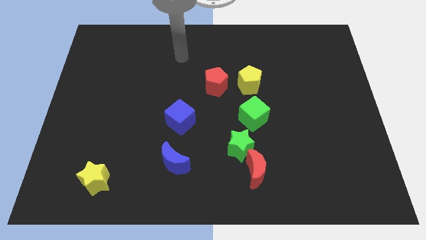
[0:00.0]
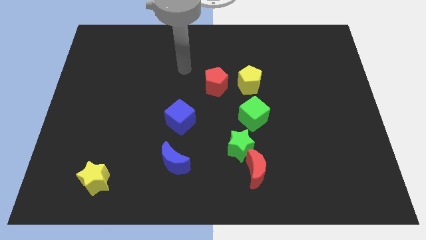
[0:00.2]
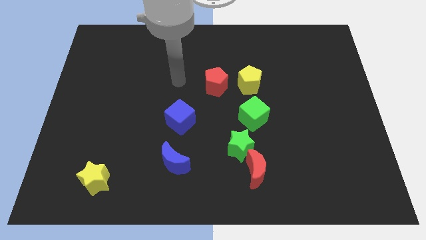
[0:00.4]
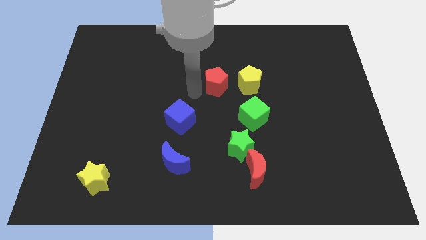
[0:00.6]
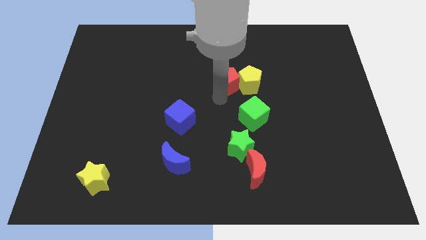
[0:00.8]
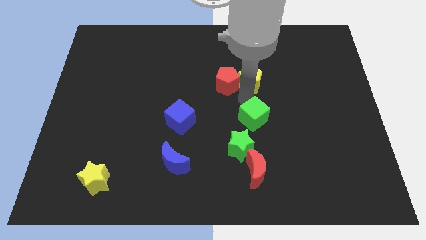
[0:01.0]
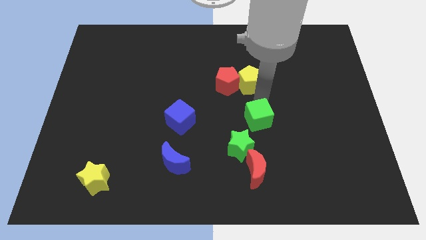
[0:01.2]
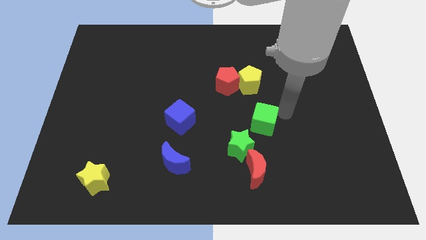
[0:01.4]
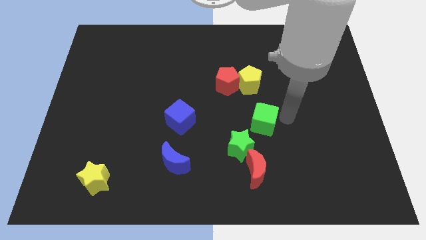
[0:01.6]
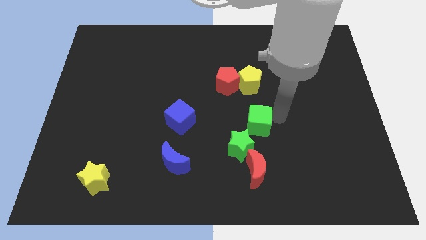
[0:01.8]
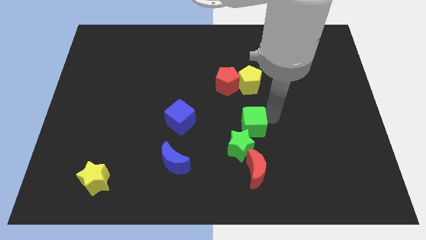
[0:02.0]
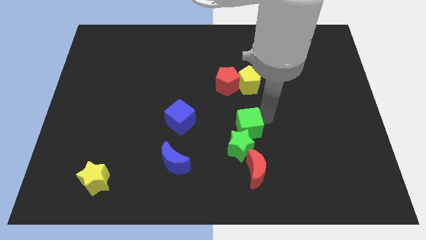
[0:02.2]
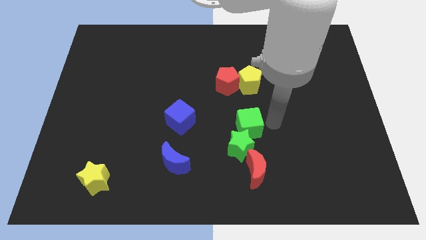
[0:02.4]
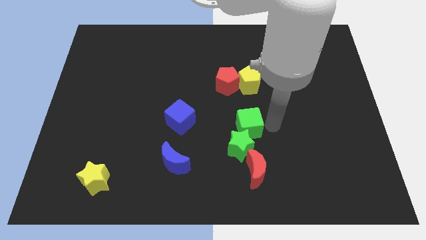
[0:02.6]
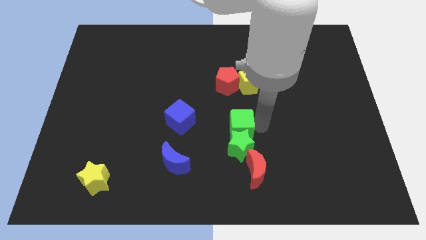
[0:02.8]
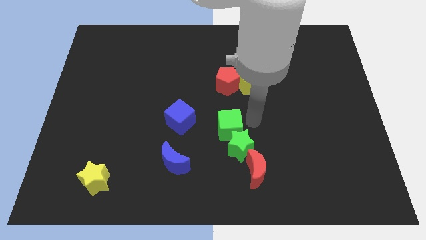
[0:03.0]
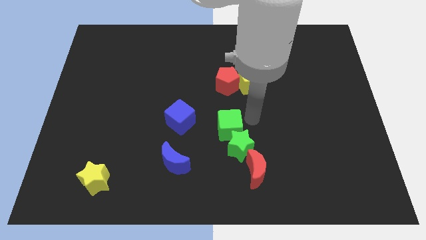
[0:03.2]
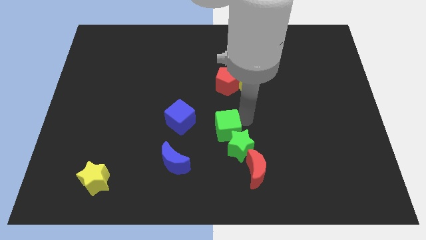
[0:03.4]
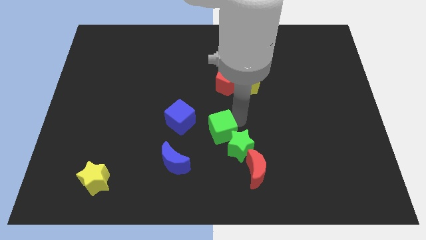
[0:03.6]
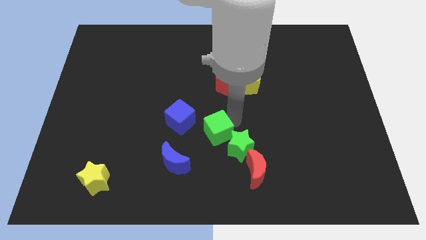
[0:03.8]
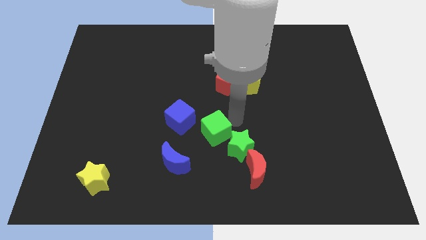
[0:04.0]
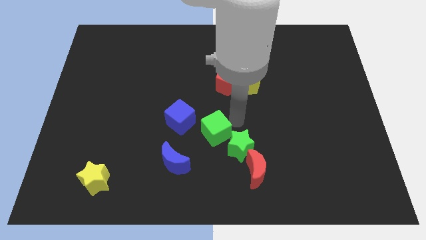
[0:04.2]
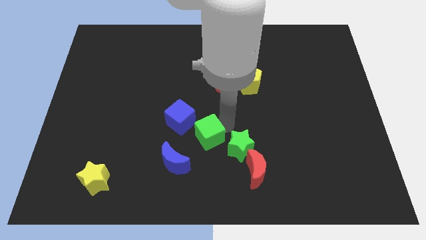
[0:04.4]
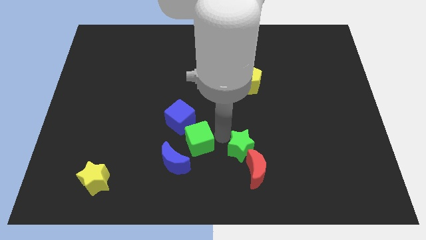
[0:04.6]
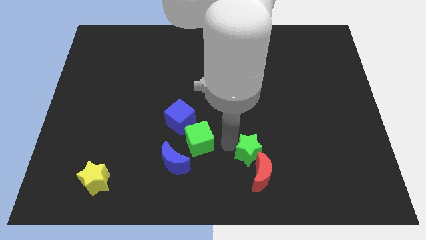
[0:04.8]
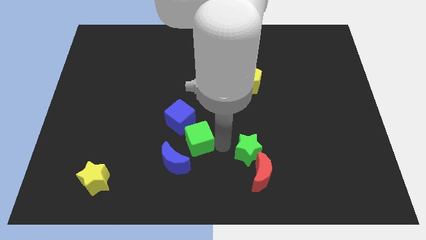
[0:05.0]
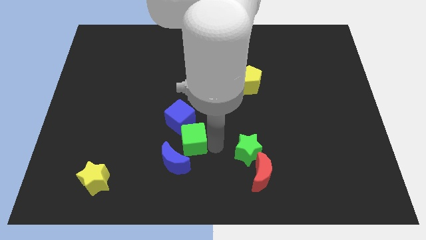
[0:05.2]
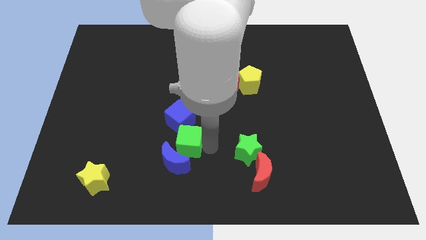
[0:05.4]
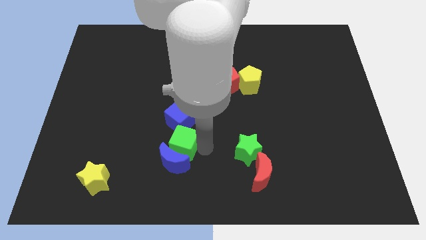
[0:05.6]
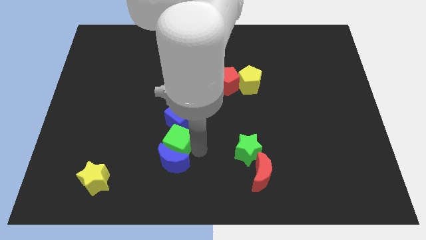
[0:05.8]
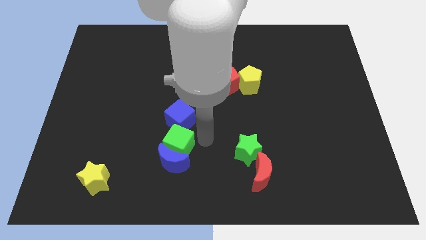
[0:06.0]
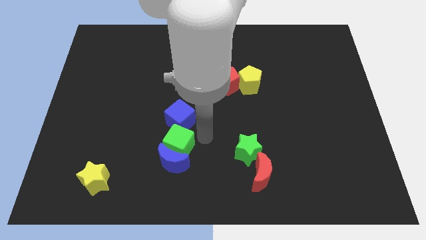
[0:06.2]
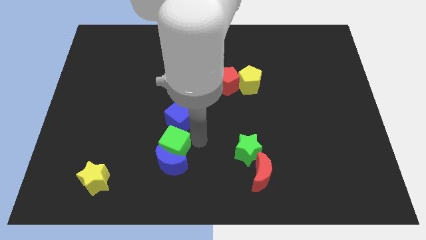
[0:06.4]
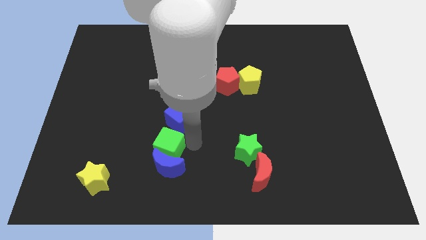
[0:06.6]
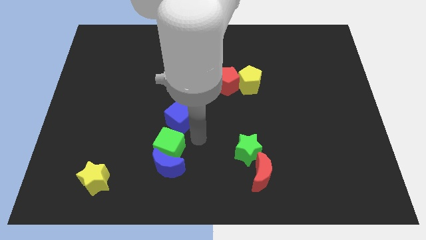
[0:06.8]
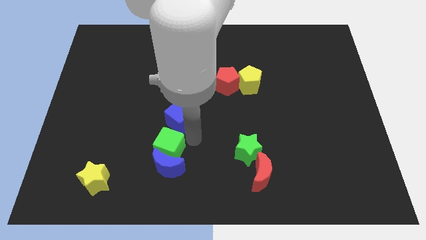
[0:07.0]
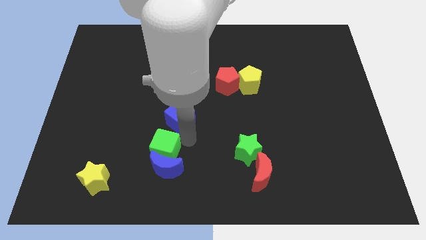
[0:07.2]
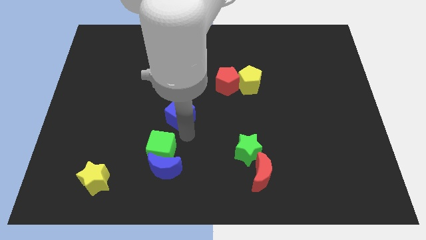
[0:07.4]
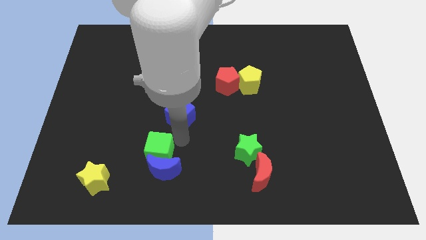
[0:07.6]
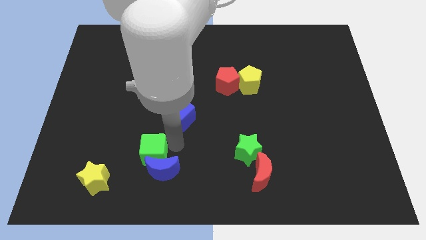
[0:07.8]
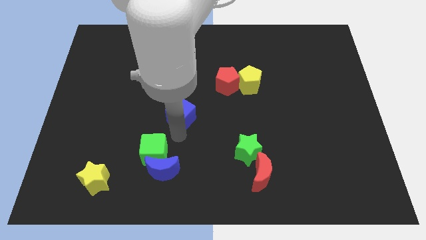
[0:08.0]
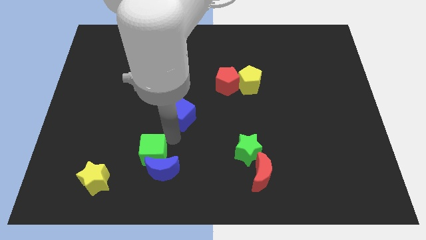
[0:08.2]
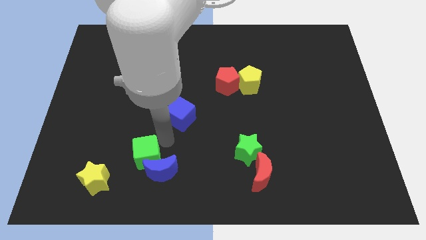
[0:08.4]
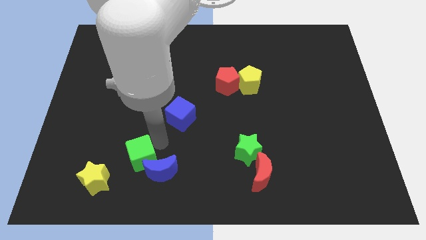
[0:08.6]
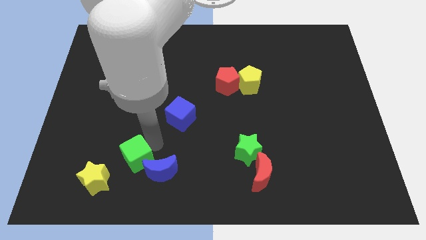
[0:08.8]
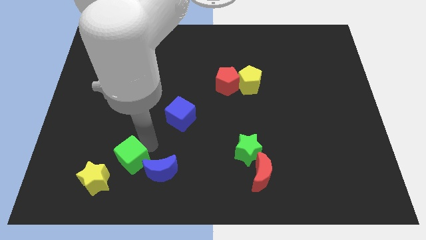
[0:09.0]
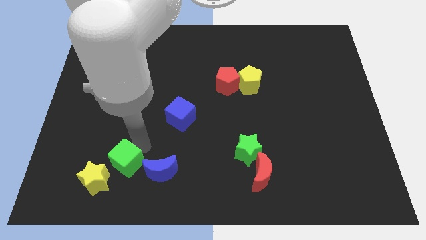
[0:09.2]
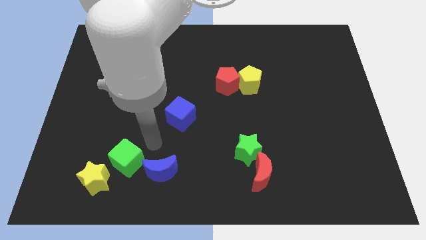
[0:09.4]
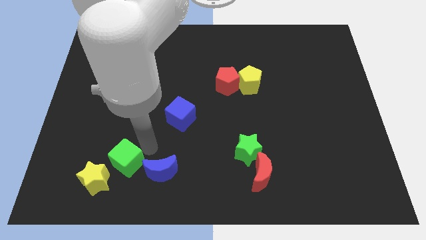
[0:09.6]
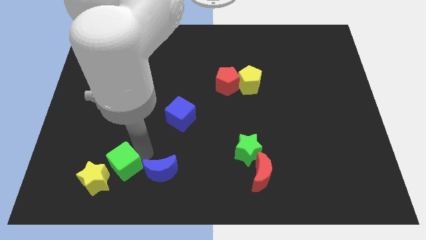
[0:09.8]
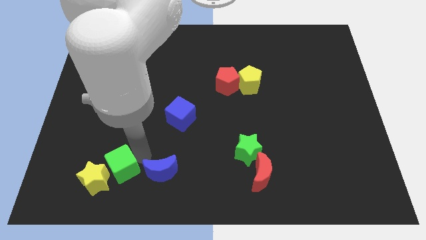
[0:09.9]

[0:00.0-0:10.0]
push the green cube close to the yellow star
